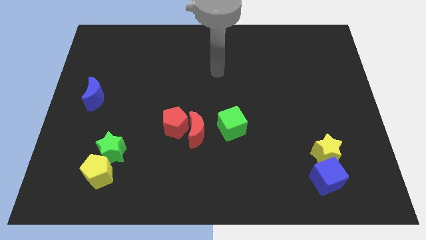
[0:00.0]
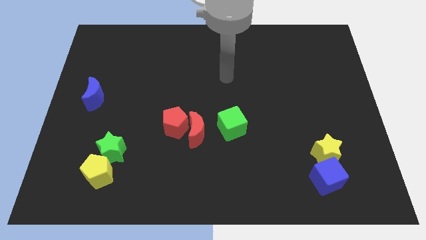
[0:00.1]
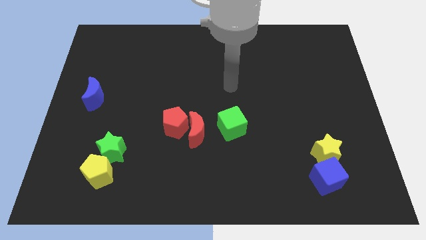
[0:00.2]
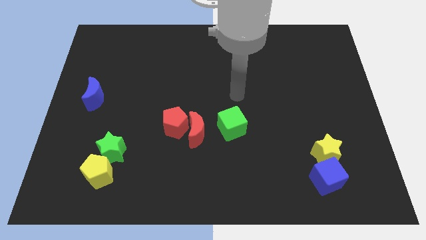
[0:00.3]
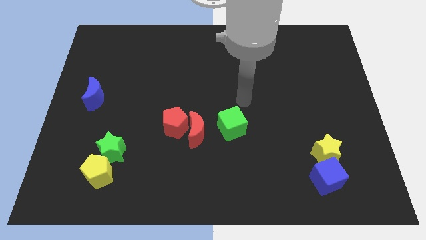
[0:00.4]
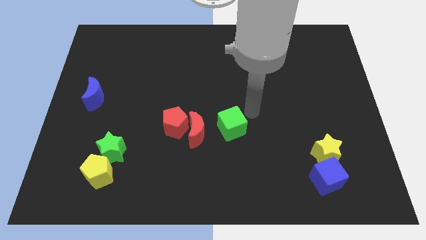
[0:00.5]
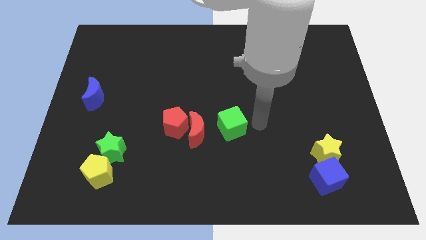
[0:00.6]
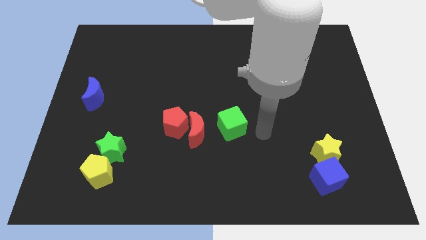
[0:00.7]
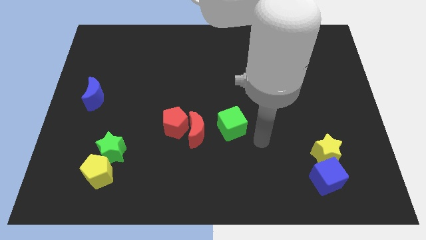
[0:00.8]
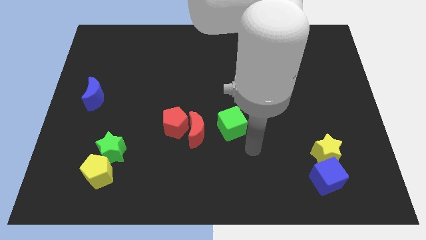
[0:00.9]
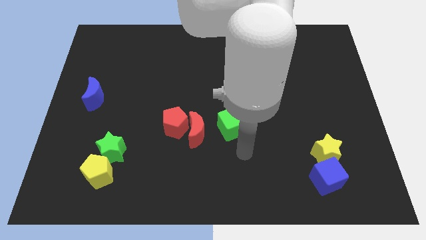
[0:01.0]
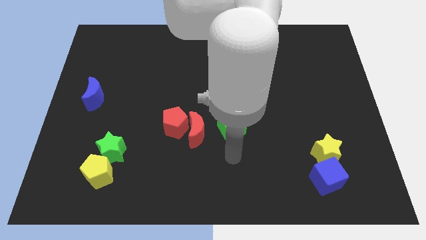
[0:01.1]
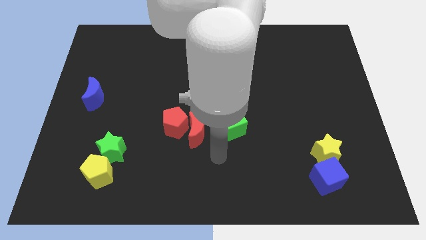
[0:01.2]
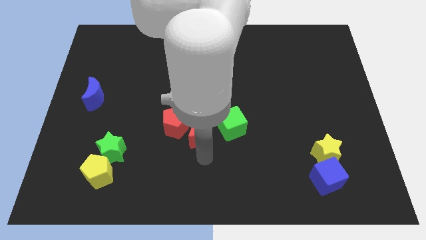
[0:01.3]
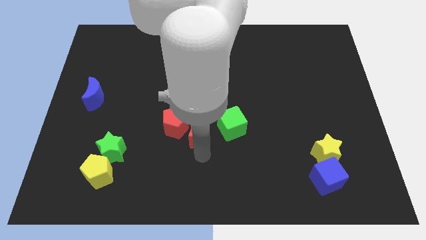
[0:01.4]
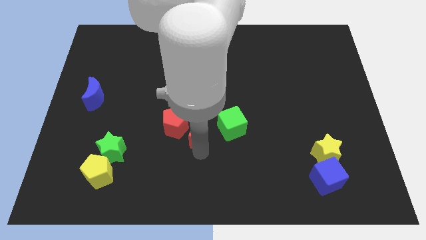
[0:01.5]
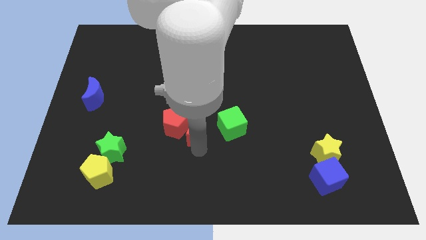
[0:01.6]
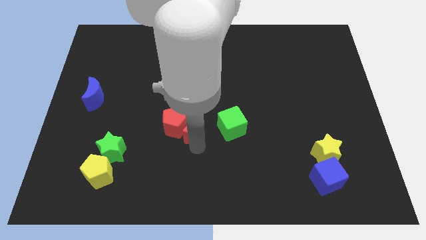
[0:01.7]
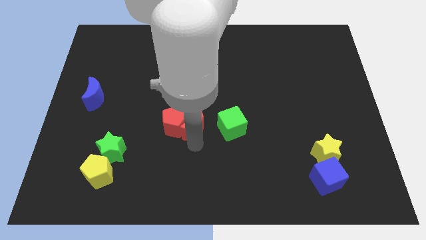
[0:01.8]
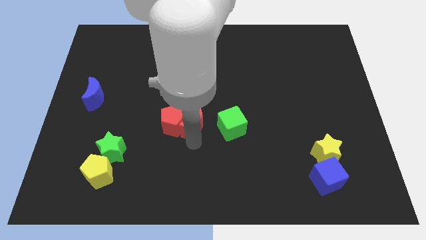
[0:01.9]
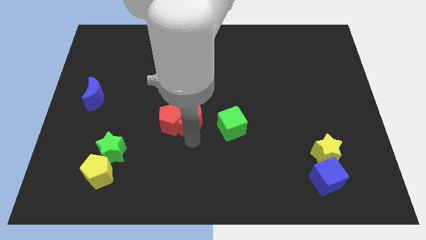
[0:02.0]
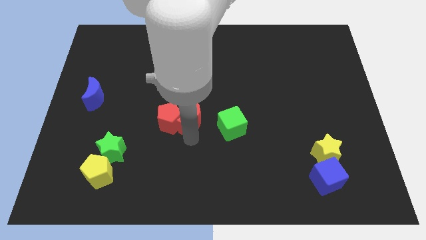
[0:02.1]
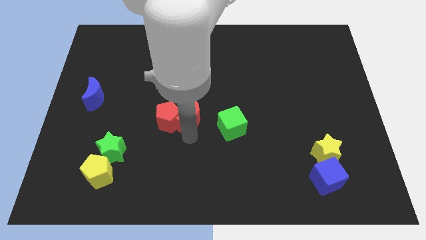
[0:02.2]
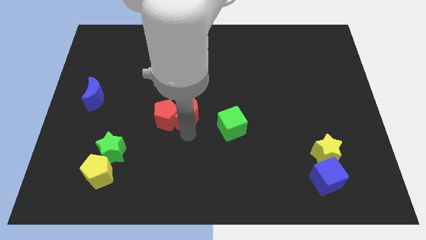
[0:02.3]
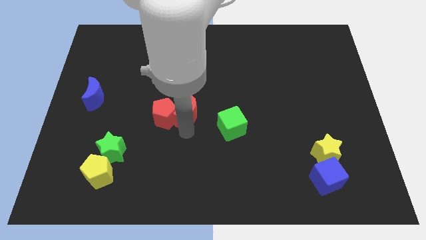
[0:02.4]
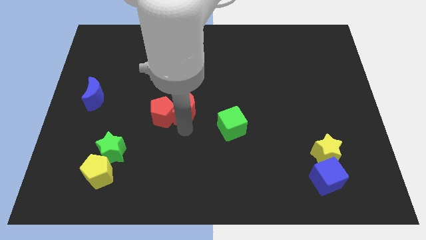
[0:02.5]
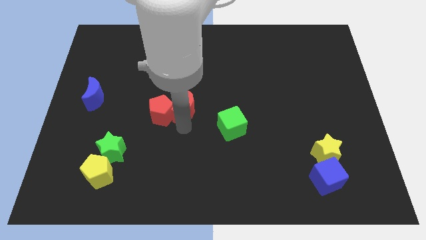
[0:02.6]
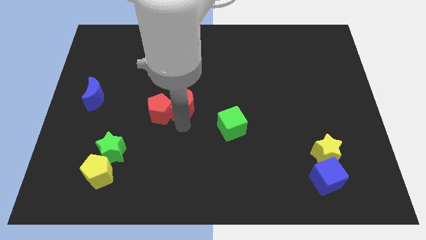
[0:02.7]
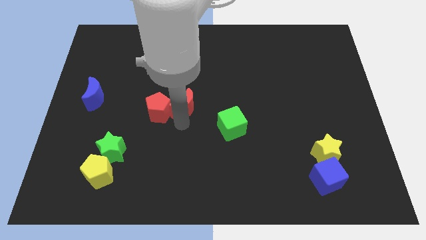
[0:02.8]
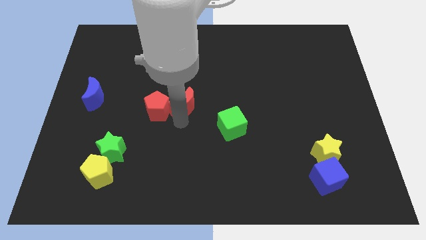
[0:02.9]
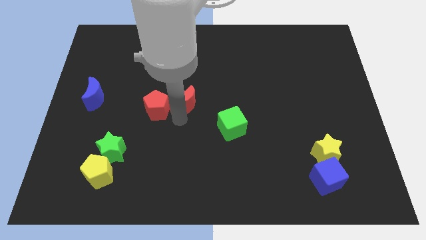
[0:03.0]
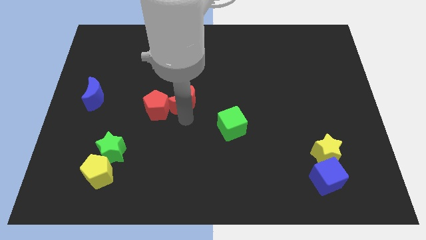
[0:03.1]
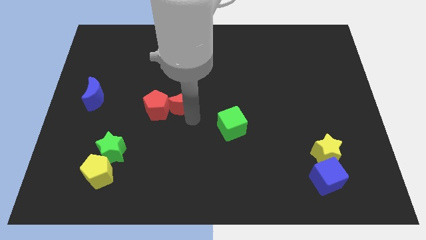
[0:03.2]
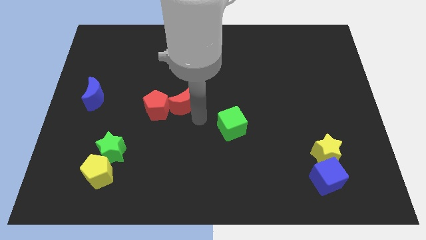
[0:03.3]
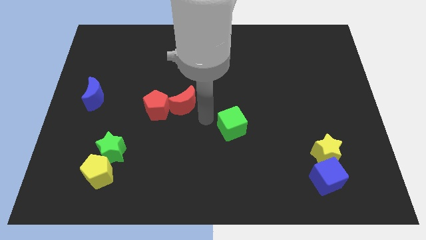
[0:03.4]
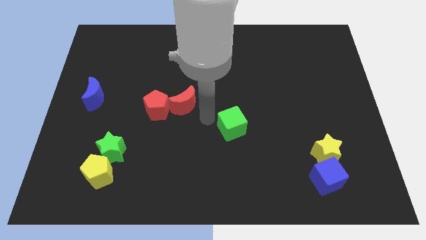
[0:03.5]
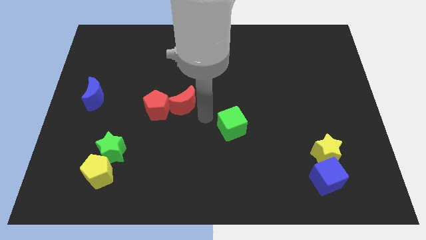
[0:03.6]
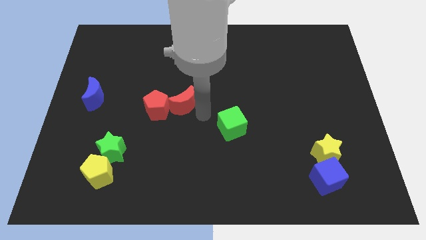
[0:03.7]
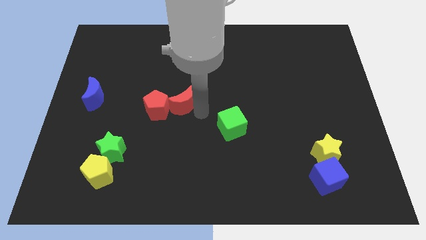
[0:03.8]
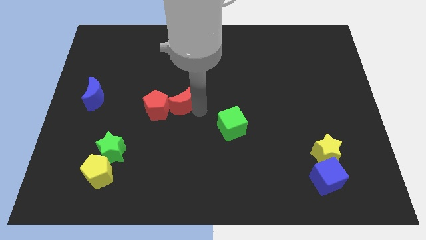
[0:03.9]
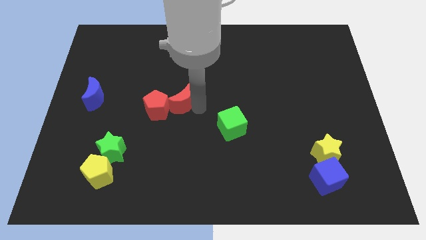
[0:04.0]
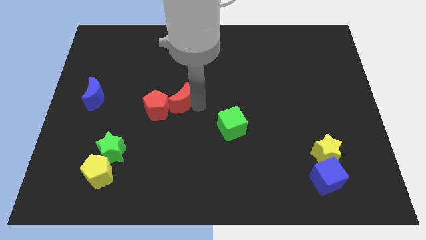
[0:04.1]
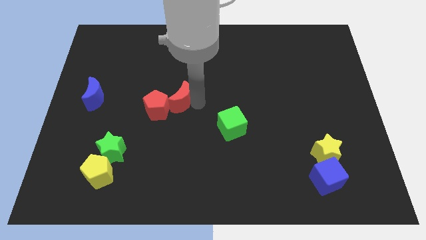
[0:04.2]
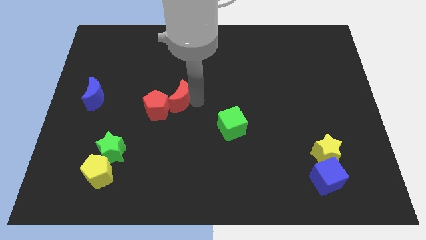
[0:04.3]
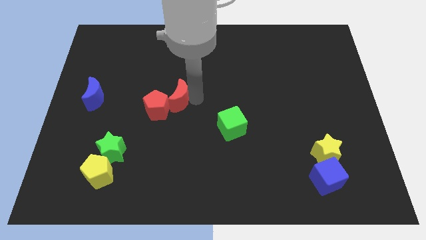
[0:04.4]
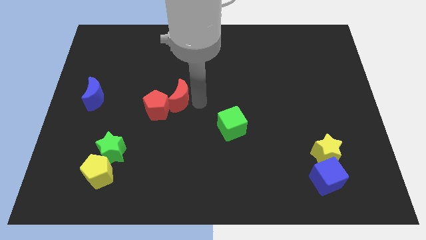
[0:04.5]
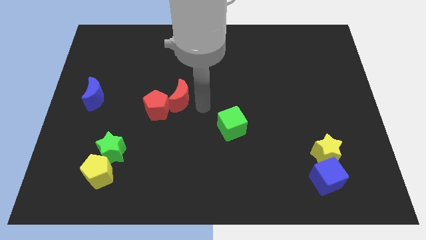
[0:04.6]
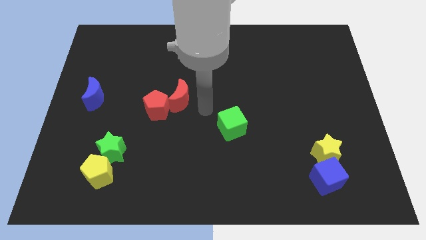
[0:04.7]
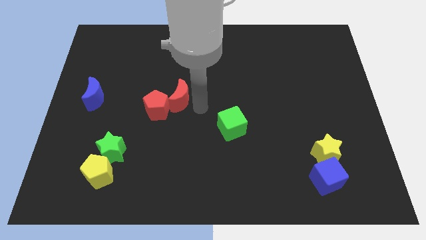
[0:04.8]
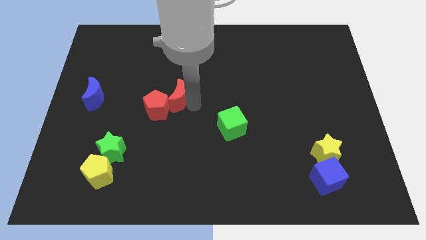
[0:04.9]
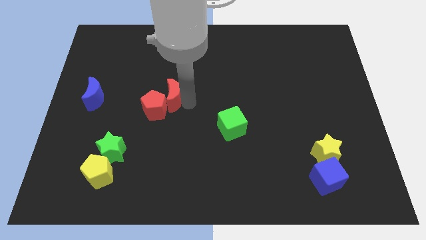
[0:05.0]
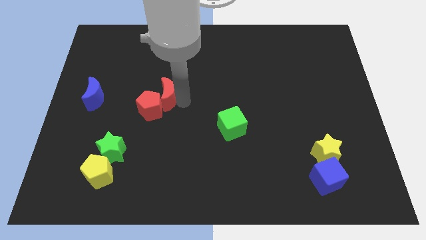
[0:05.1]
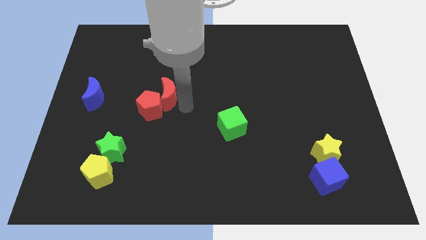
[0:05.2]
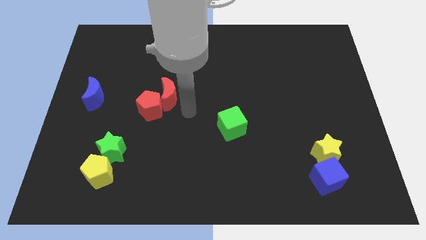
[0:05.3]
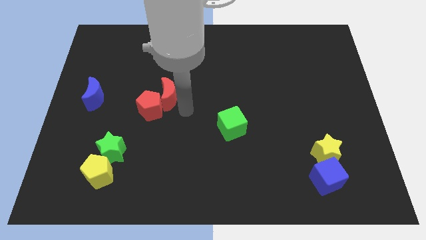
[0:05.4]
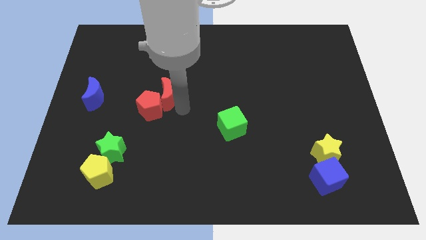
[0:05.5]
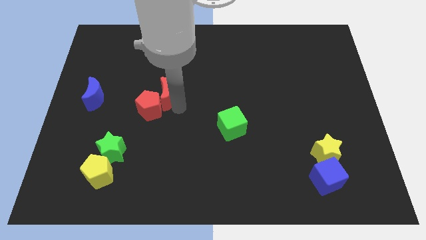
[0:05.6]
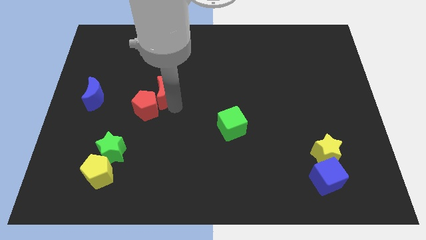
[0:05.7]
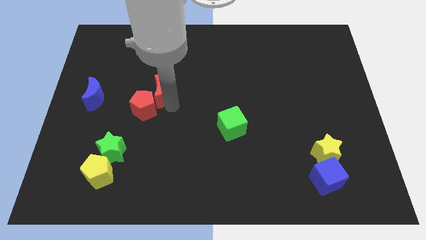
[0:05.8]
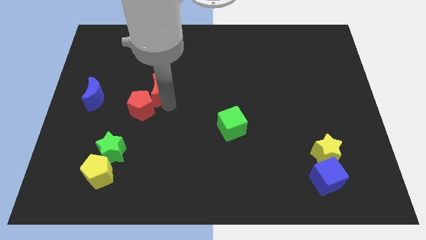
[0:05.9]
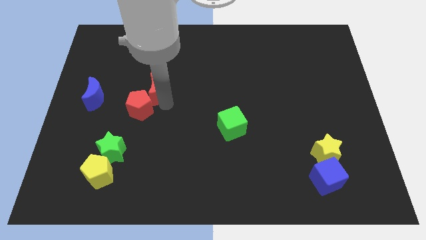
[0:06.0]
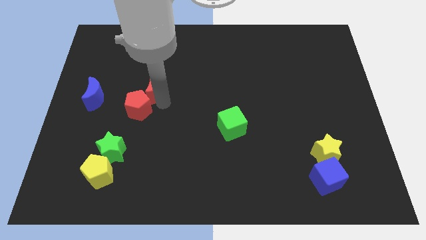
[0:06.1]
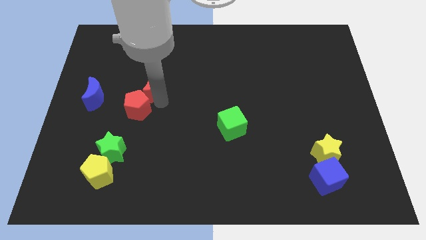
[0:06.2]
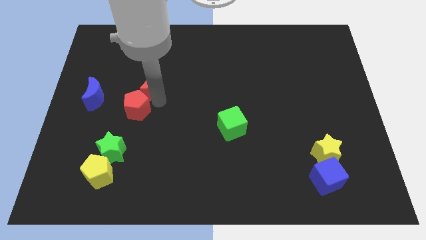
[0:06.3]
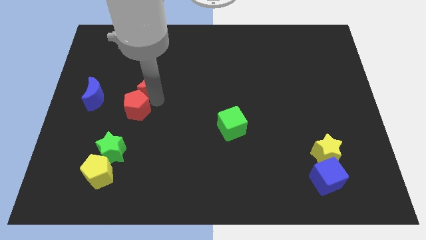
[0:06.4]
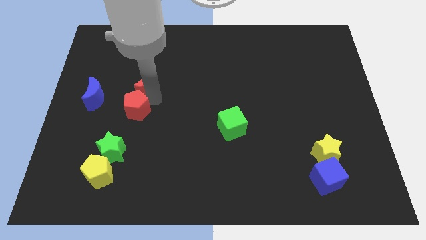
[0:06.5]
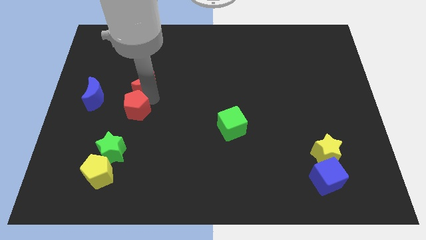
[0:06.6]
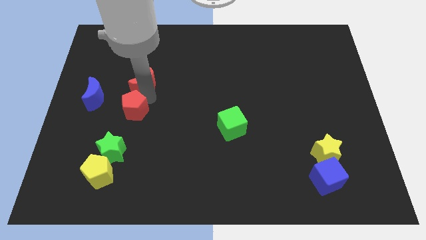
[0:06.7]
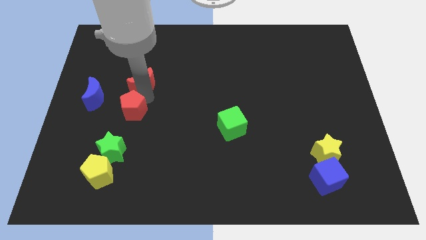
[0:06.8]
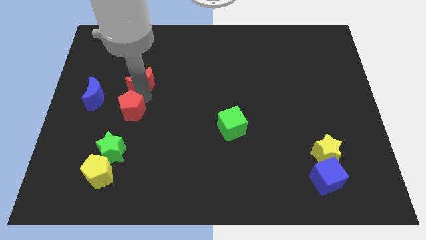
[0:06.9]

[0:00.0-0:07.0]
slide the red moon up and to the left diagonally

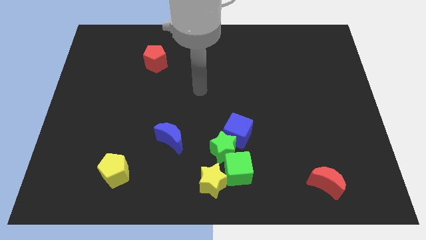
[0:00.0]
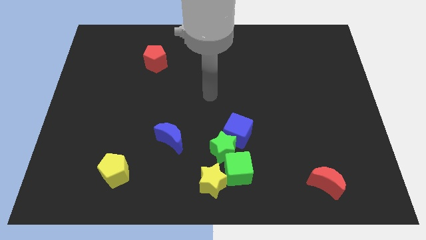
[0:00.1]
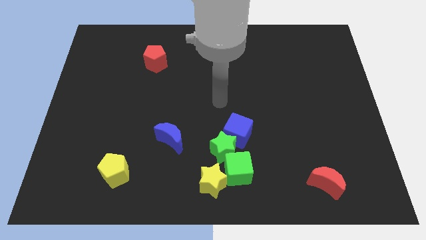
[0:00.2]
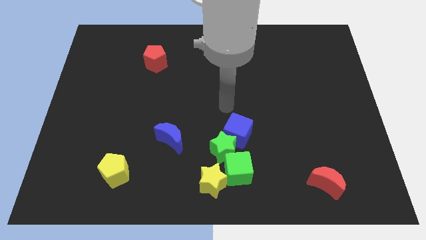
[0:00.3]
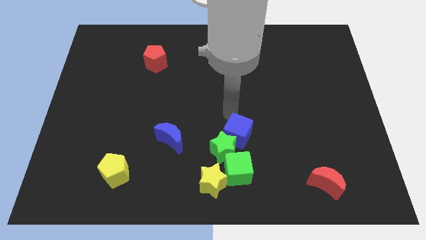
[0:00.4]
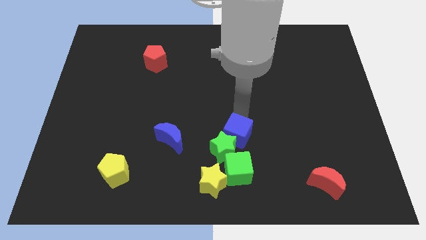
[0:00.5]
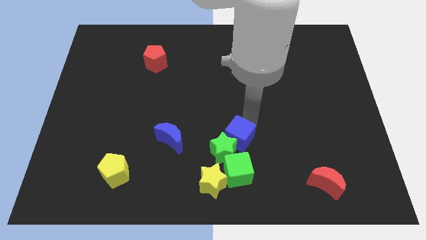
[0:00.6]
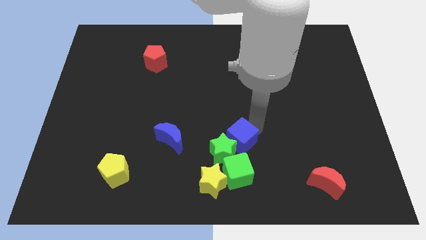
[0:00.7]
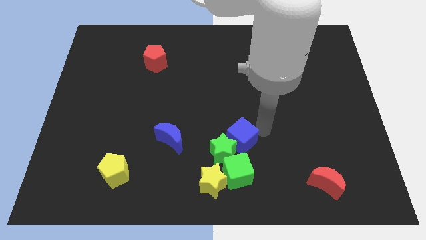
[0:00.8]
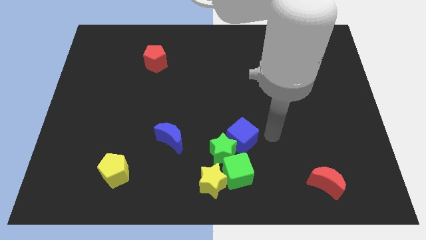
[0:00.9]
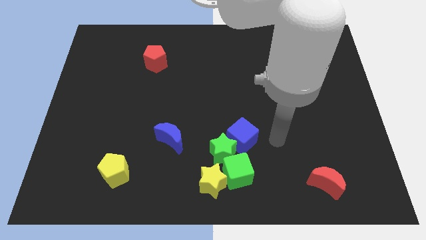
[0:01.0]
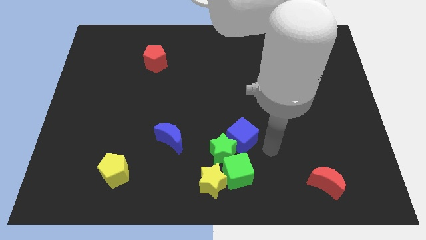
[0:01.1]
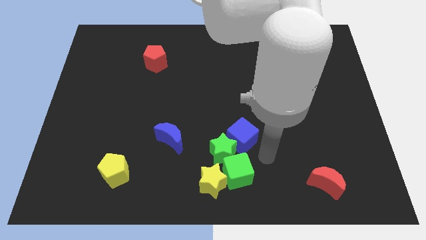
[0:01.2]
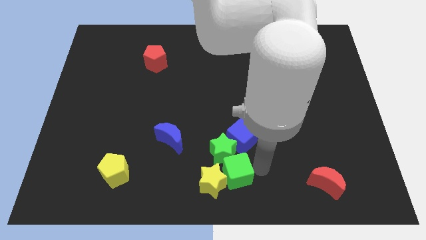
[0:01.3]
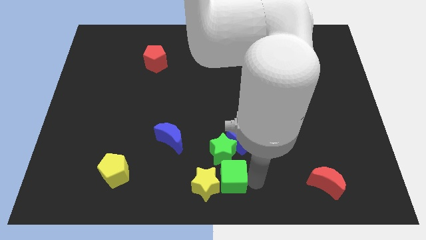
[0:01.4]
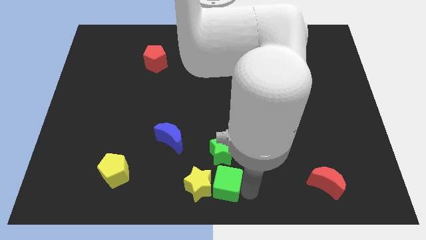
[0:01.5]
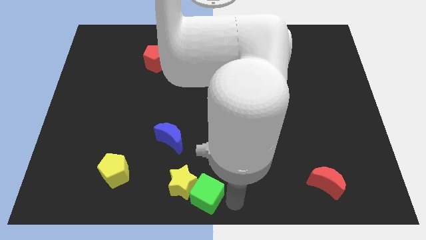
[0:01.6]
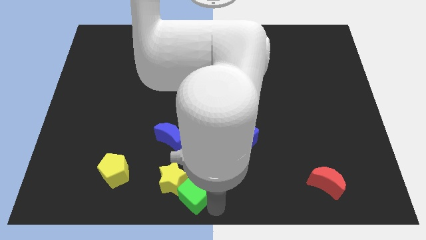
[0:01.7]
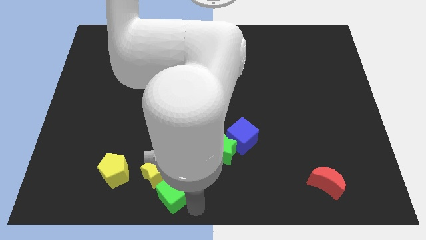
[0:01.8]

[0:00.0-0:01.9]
slide the yellow star a bit up and to the left
